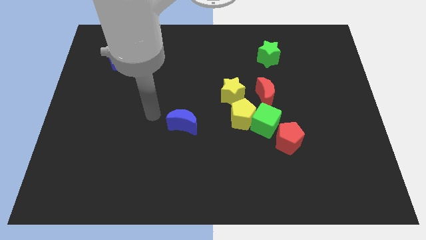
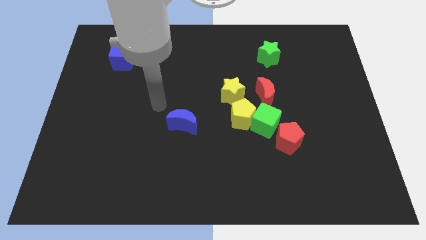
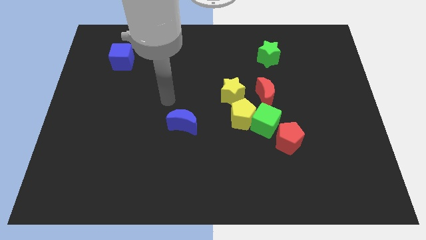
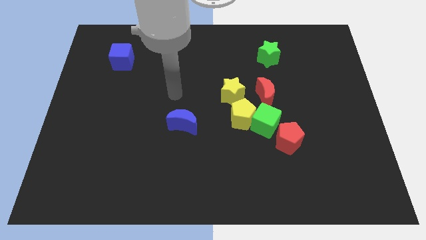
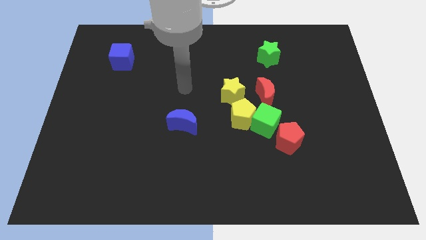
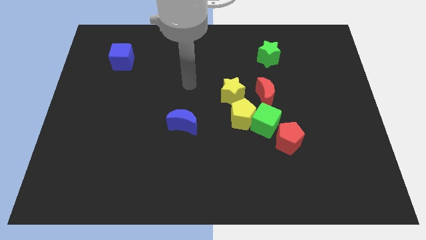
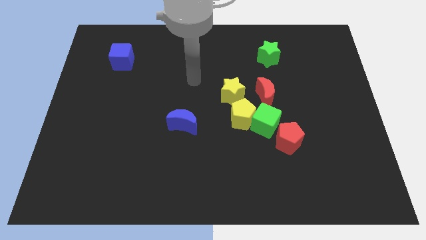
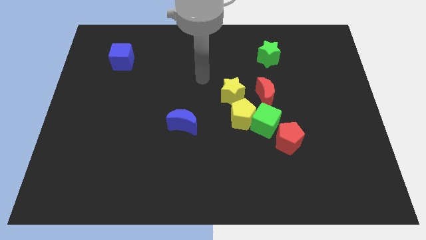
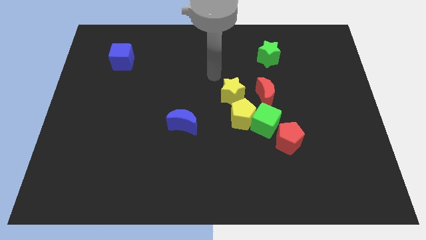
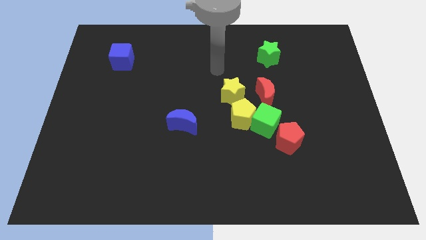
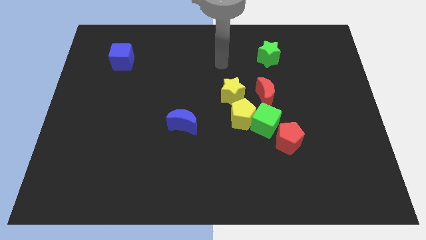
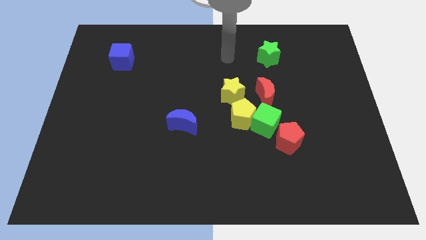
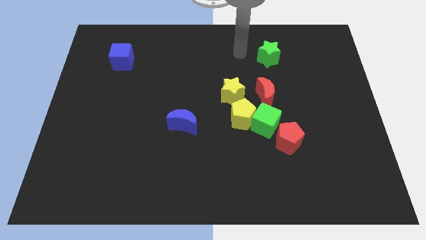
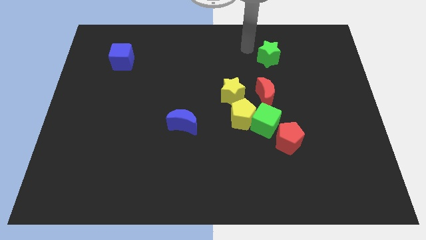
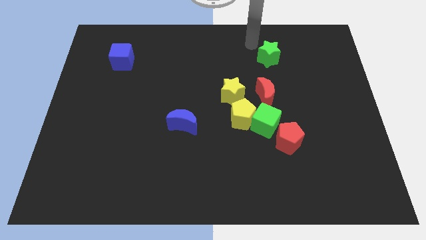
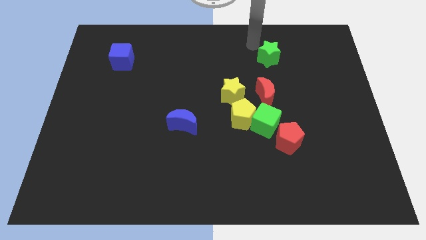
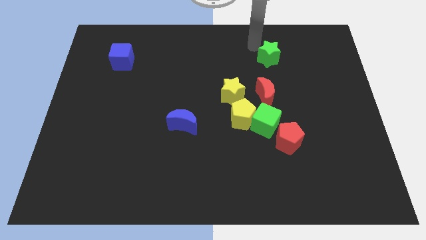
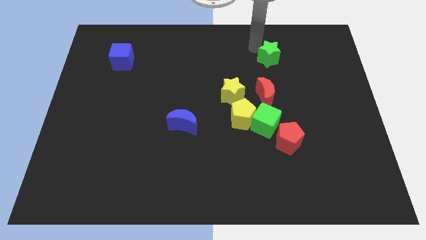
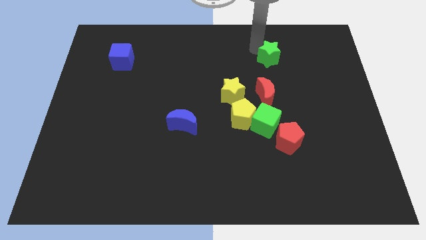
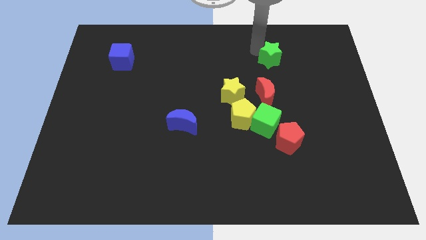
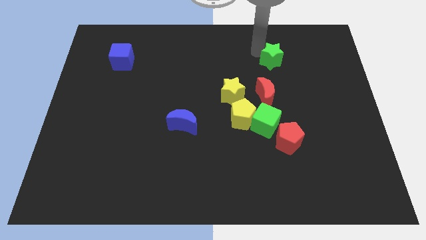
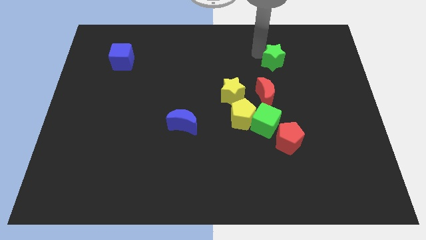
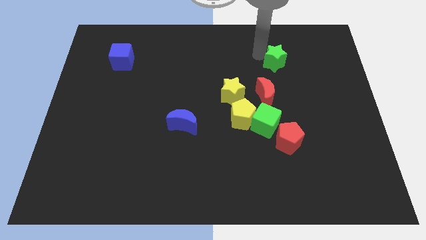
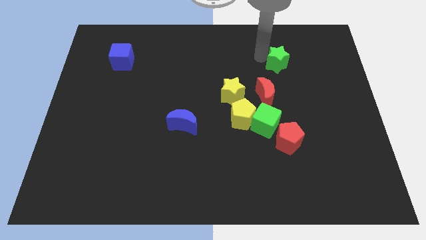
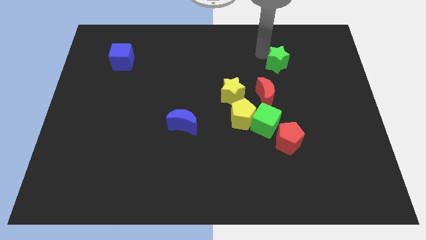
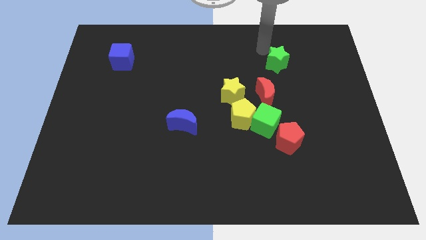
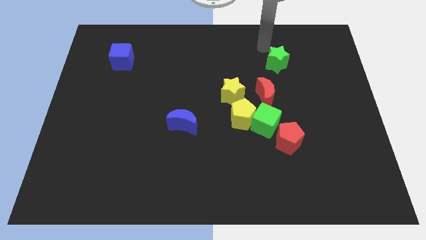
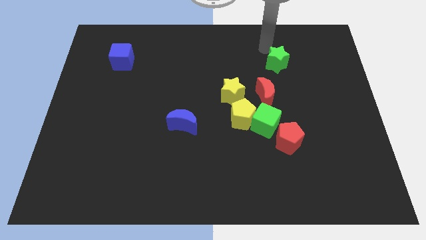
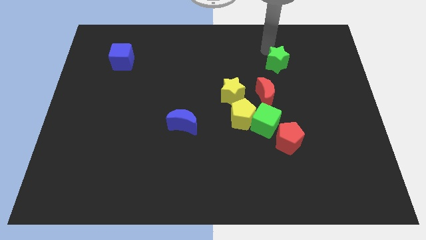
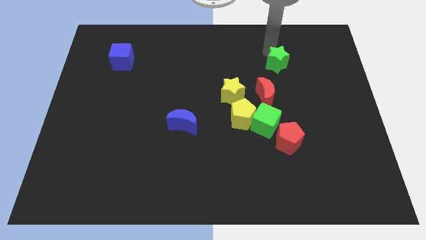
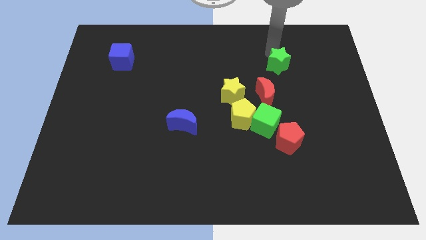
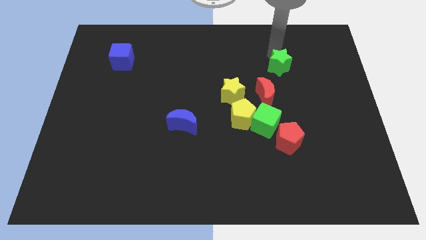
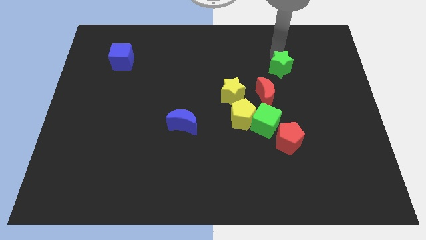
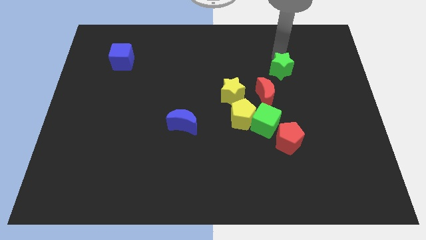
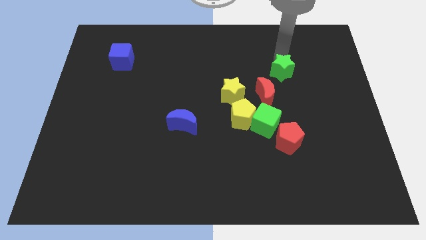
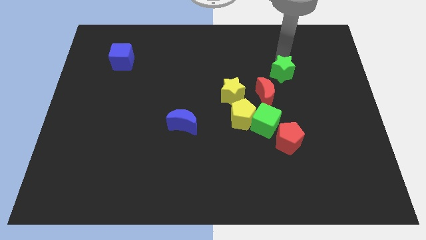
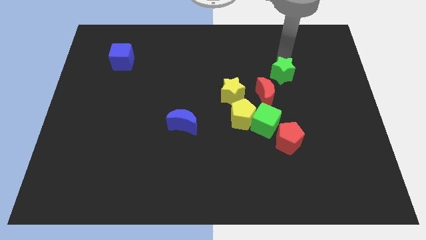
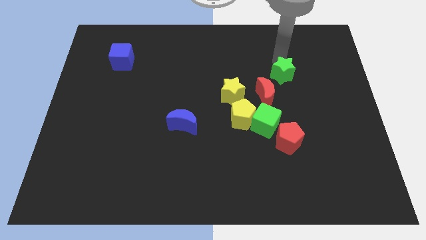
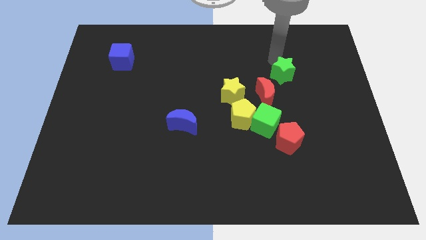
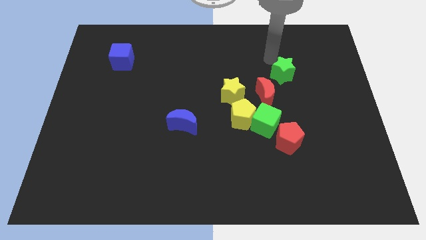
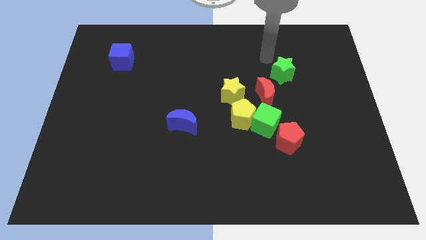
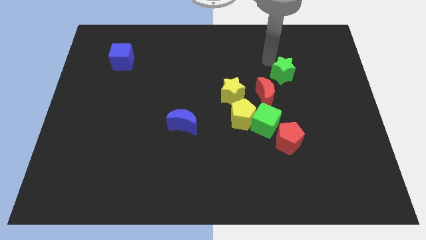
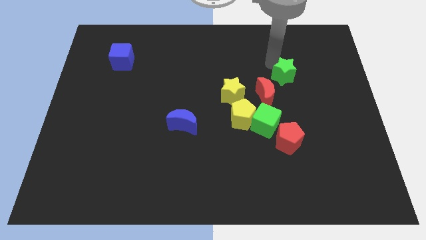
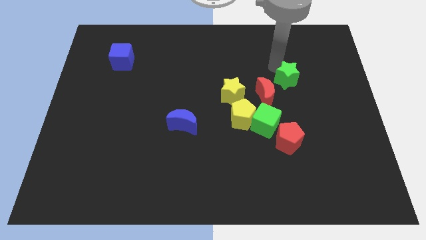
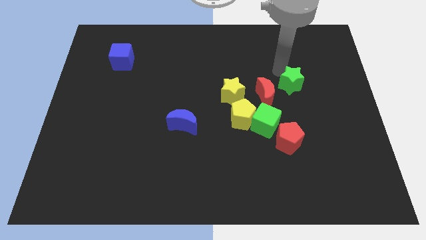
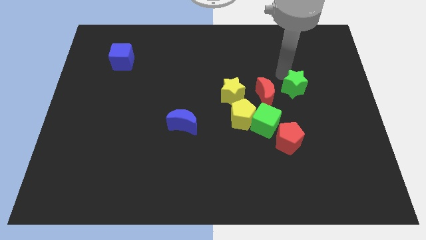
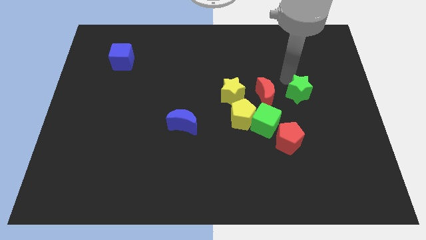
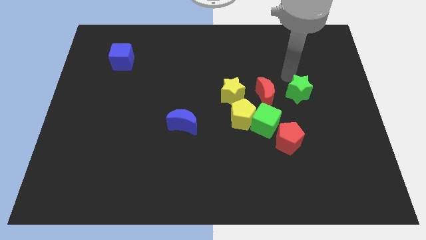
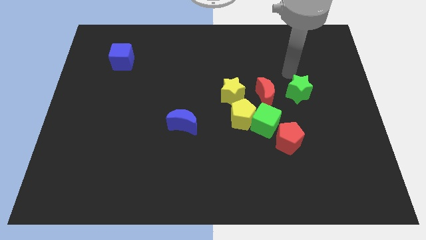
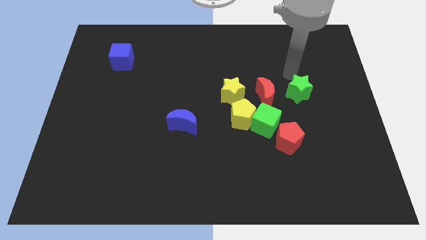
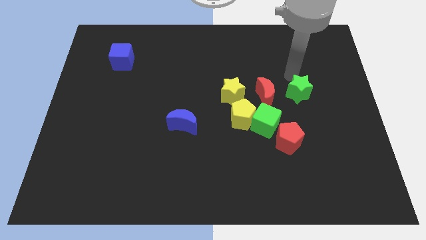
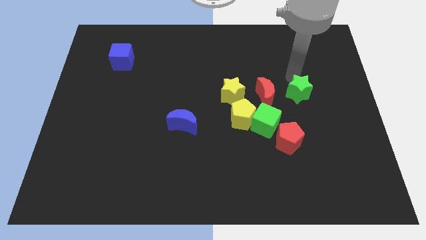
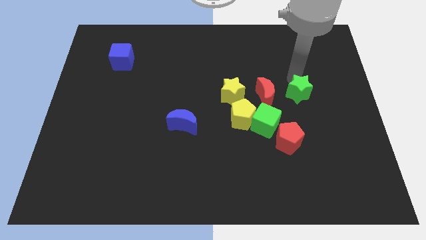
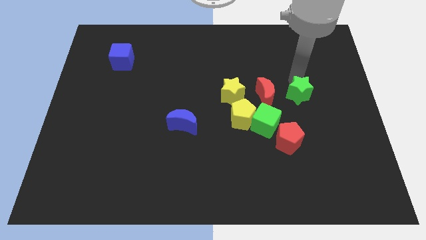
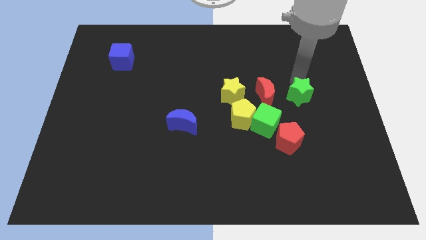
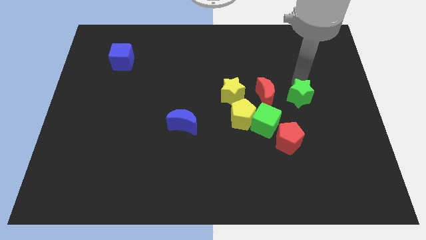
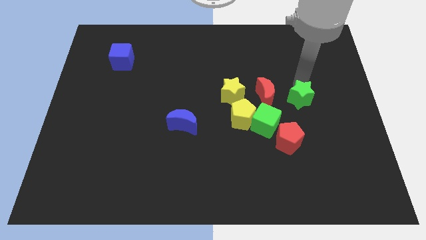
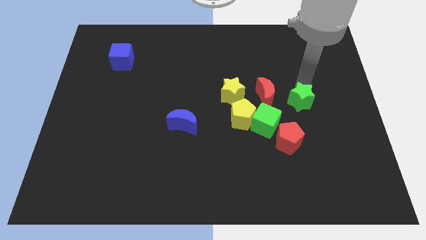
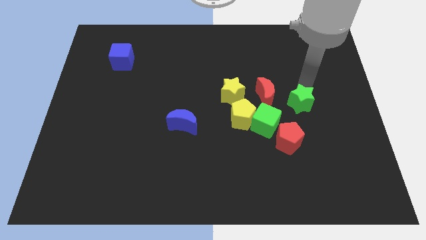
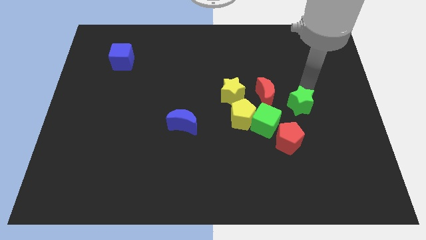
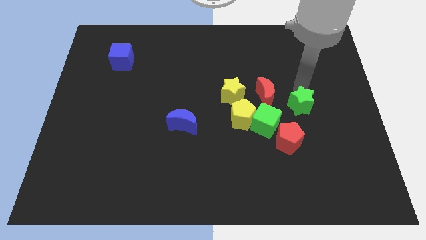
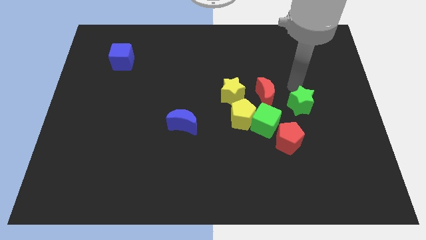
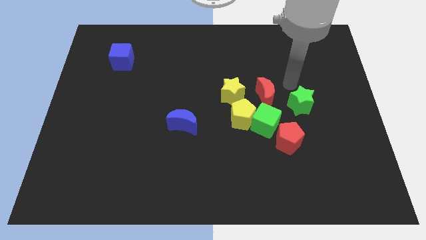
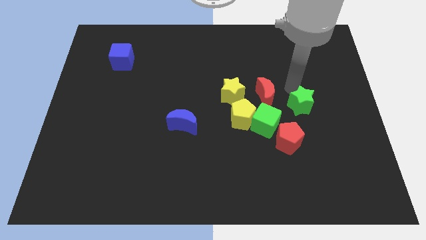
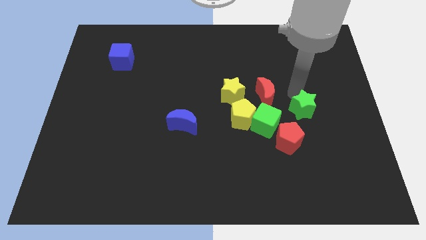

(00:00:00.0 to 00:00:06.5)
push the green star just right of the green cube

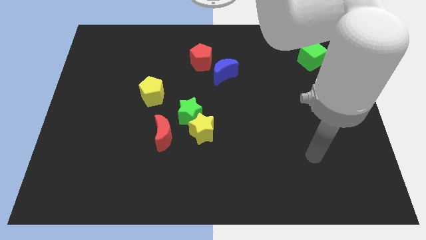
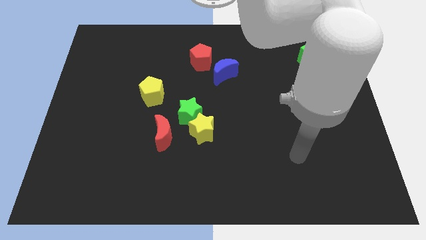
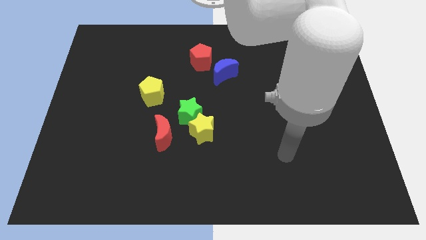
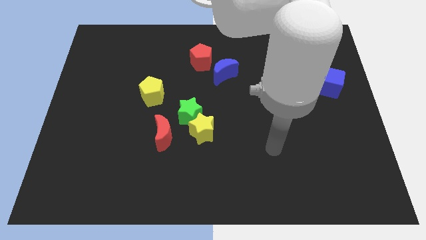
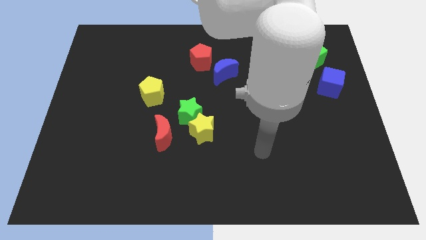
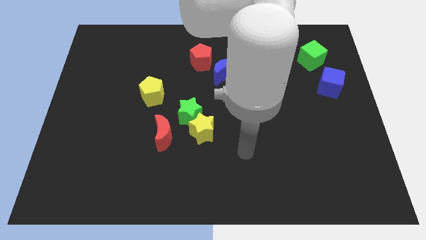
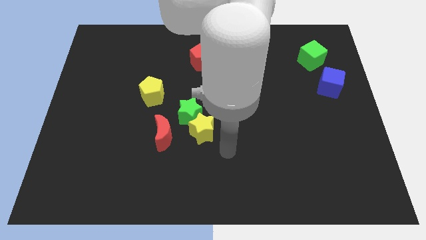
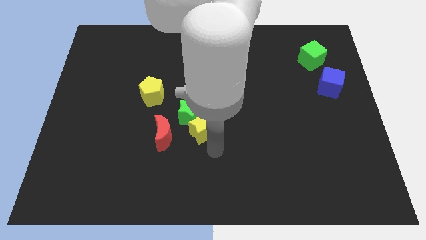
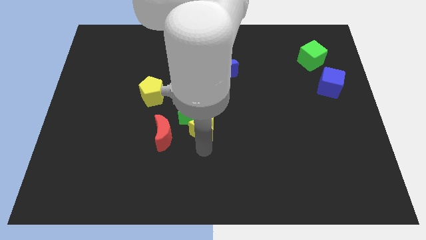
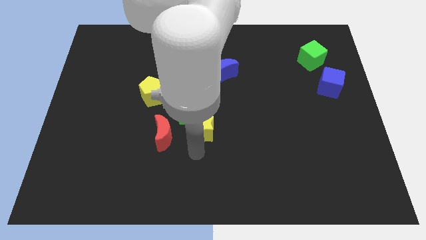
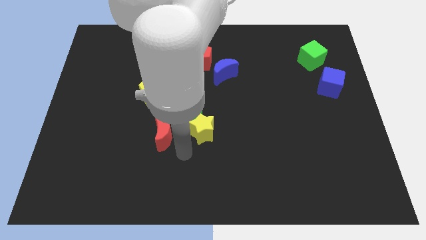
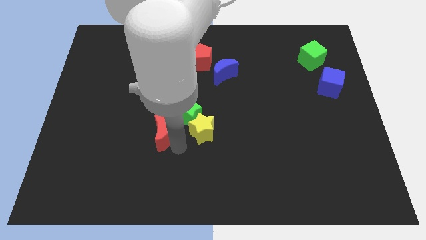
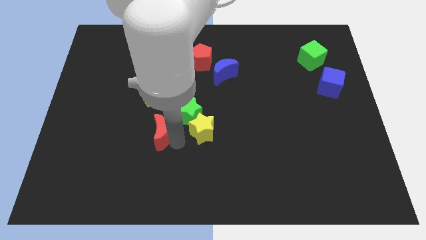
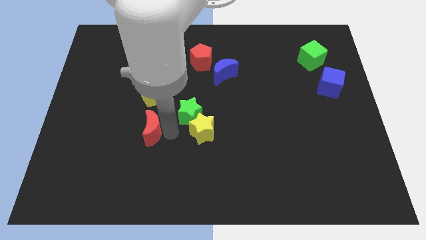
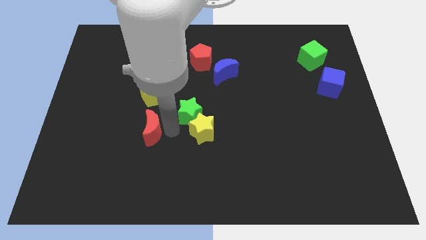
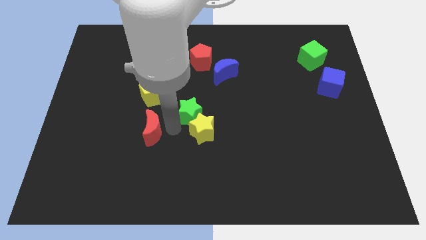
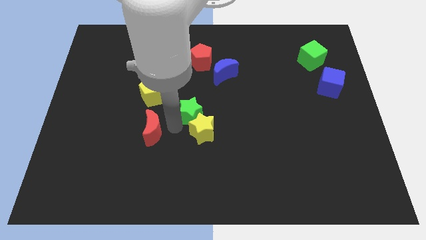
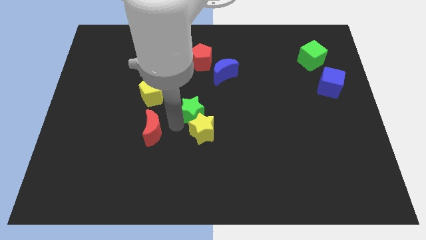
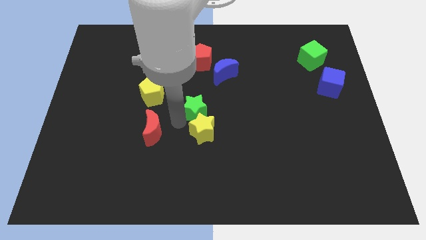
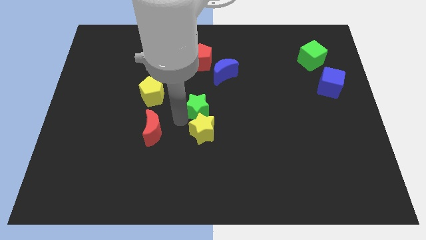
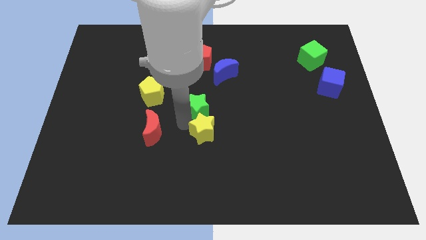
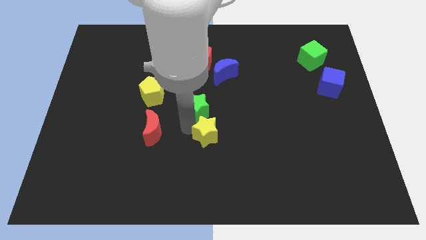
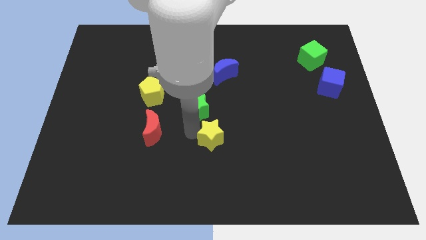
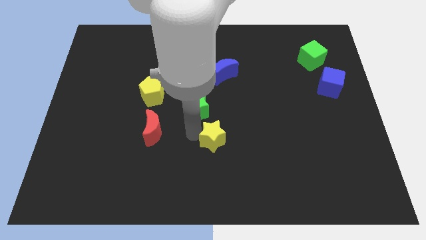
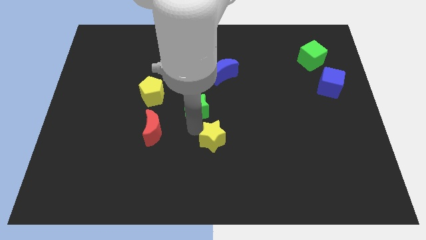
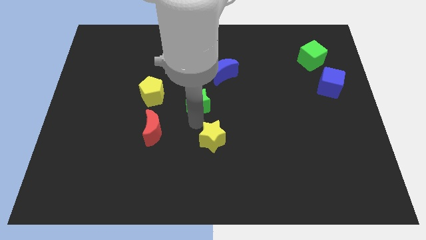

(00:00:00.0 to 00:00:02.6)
slide the green star diagonally down and to the left of the blue moon
